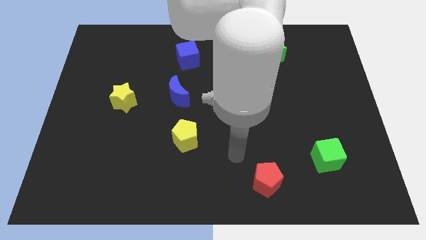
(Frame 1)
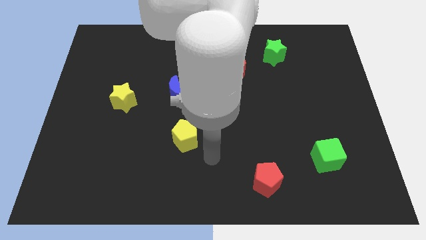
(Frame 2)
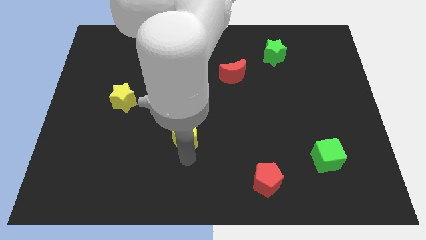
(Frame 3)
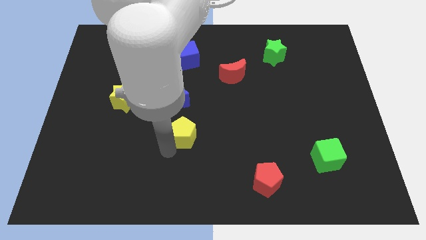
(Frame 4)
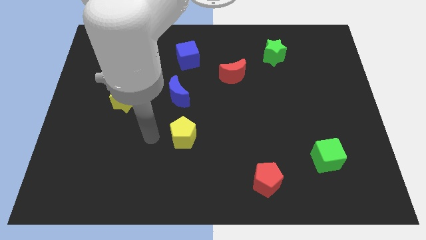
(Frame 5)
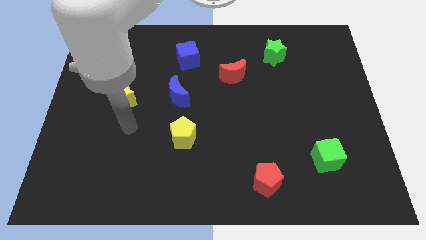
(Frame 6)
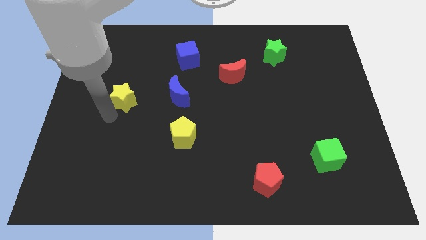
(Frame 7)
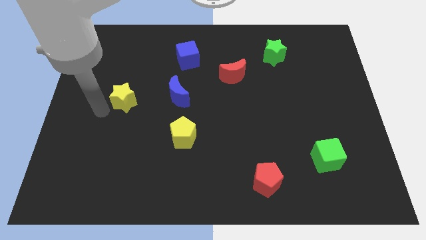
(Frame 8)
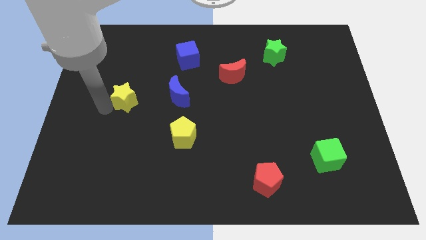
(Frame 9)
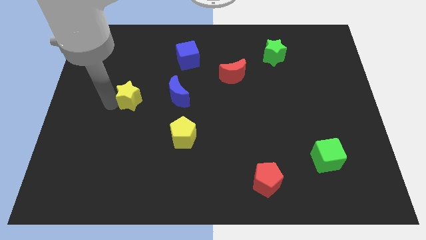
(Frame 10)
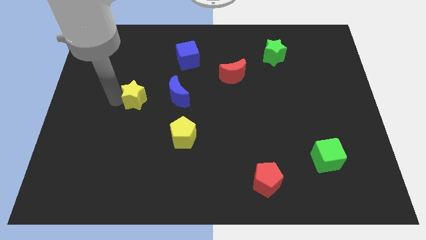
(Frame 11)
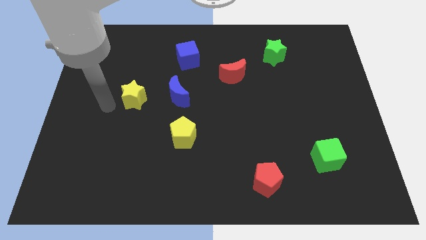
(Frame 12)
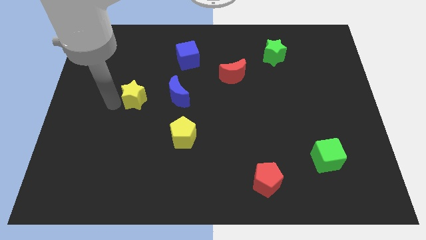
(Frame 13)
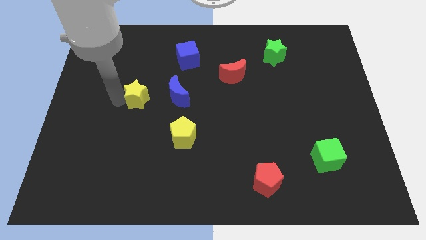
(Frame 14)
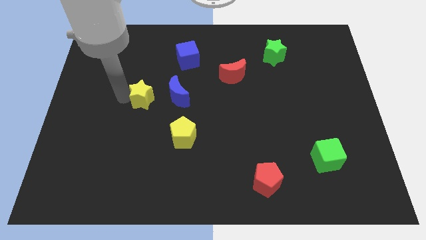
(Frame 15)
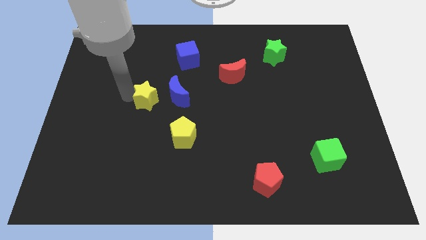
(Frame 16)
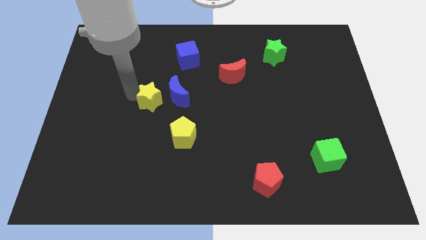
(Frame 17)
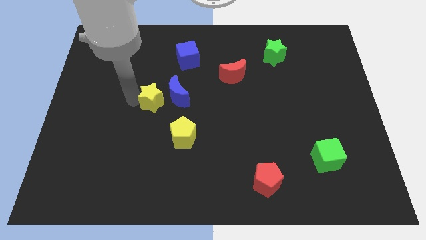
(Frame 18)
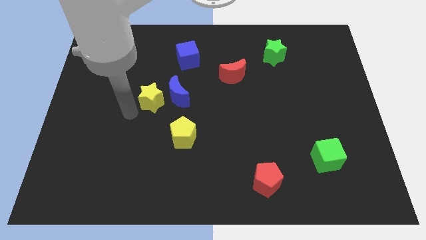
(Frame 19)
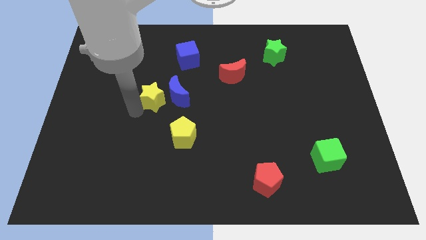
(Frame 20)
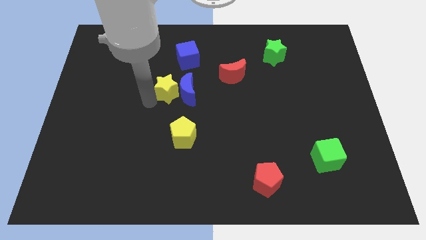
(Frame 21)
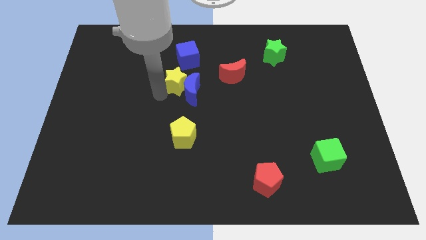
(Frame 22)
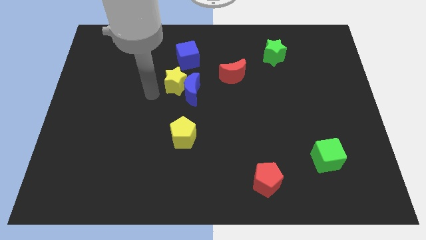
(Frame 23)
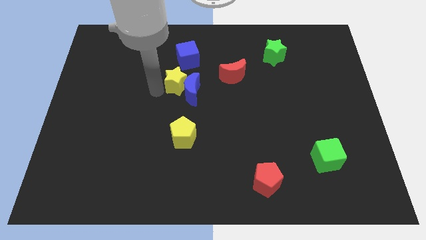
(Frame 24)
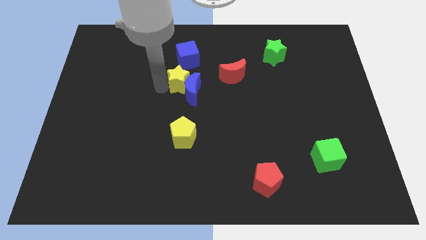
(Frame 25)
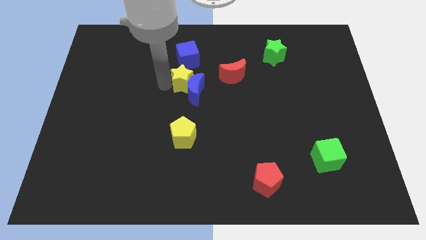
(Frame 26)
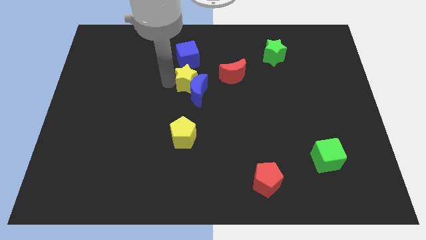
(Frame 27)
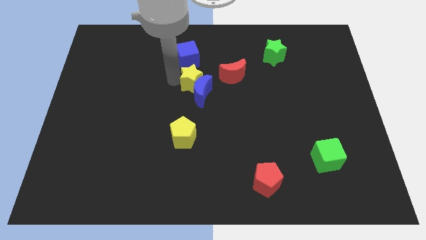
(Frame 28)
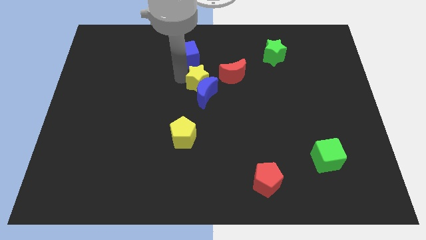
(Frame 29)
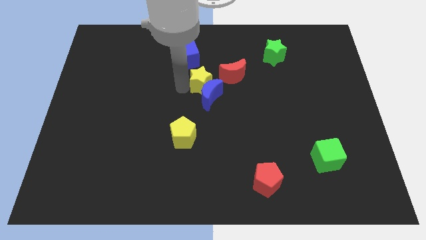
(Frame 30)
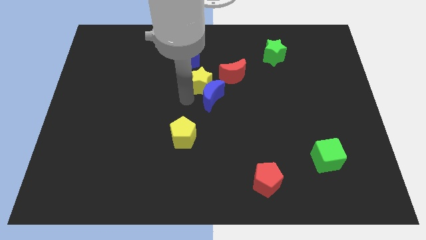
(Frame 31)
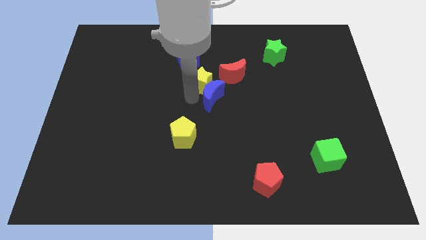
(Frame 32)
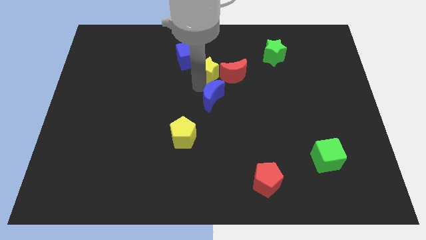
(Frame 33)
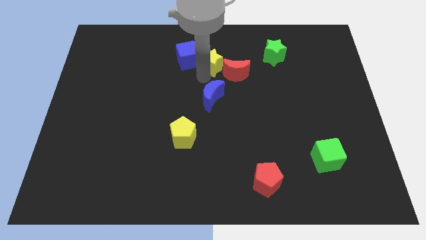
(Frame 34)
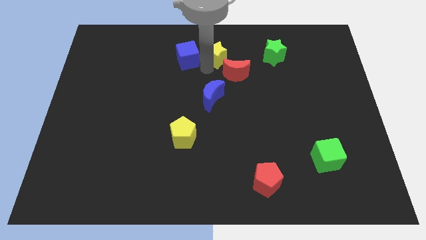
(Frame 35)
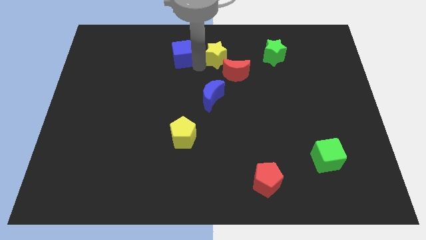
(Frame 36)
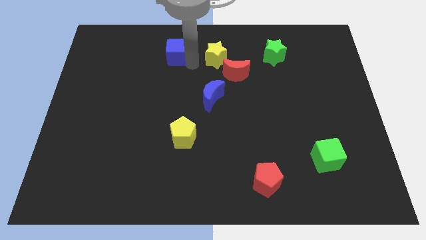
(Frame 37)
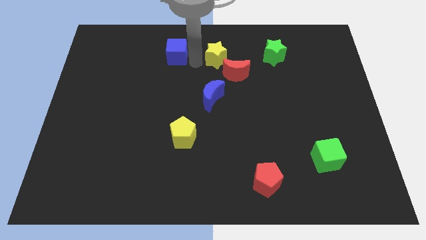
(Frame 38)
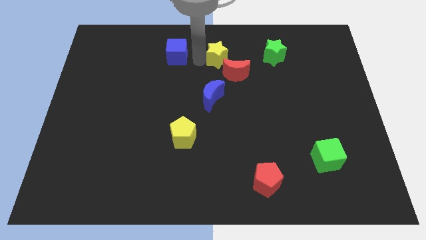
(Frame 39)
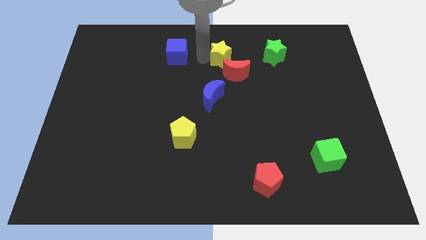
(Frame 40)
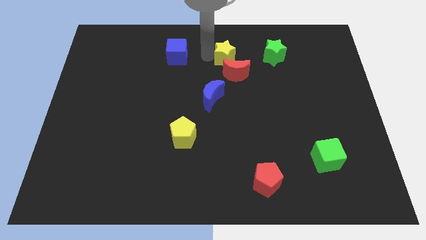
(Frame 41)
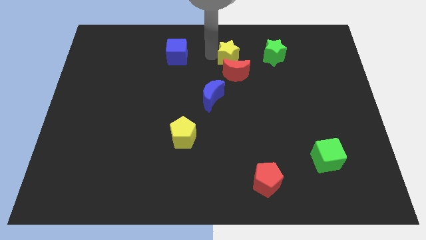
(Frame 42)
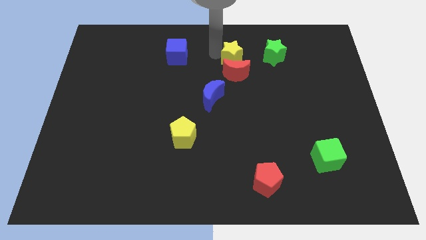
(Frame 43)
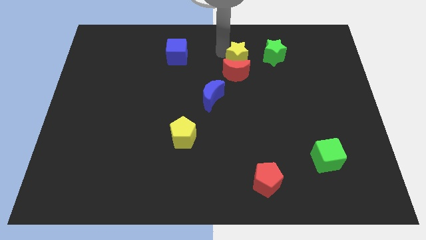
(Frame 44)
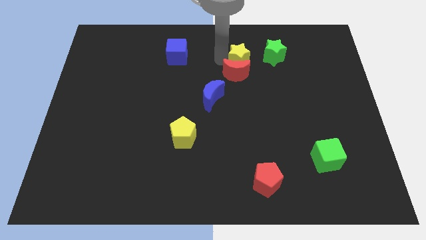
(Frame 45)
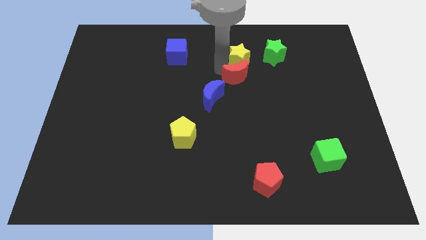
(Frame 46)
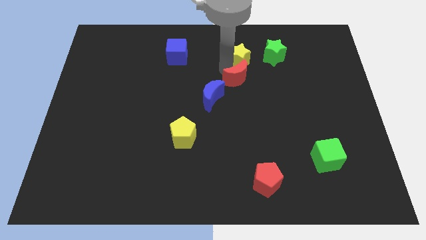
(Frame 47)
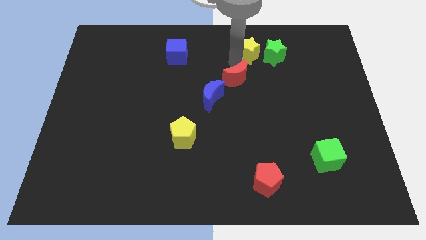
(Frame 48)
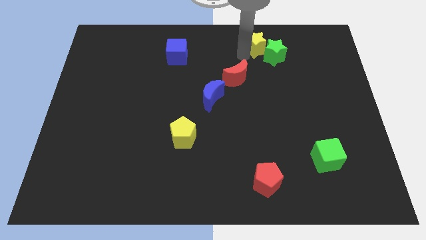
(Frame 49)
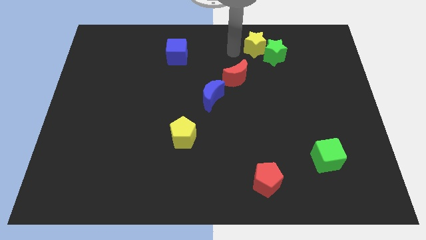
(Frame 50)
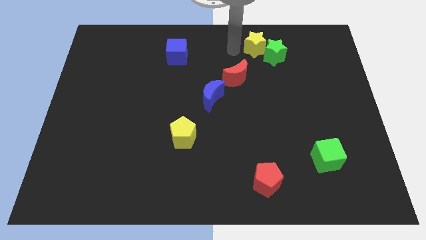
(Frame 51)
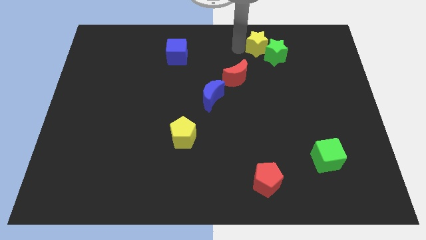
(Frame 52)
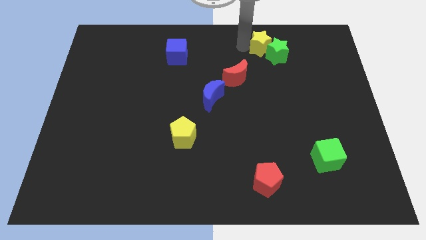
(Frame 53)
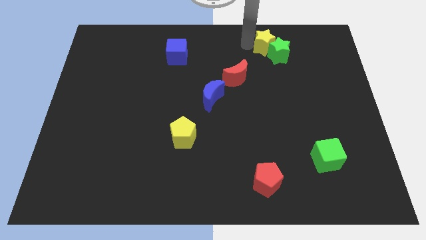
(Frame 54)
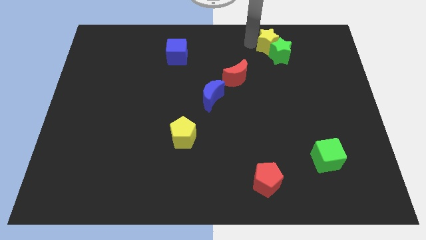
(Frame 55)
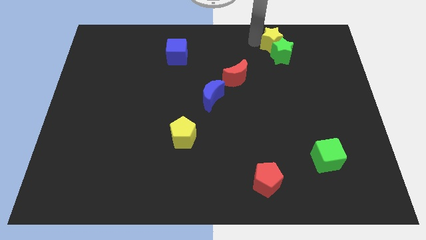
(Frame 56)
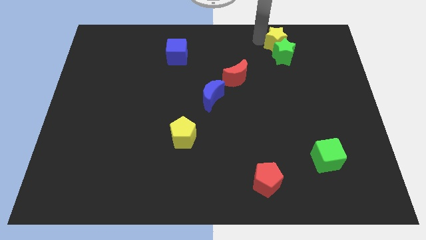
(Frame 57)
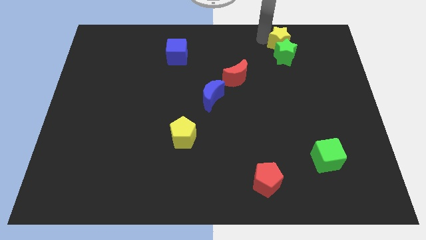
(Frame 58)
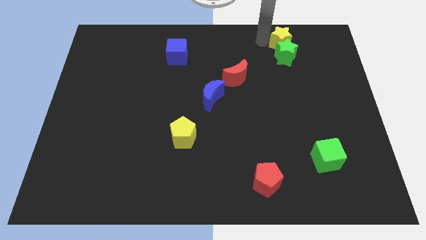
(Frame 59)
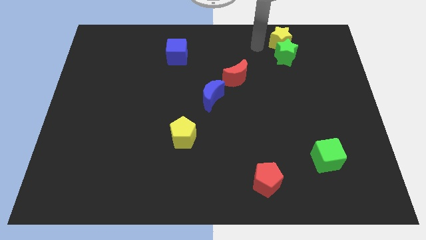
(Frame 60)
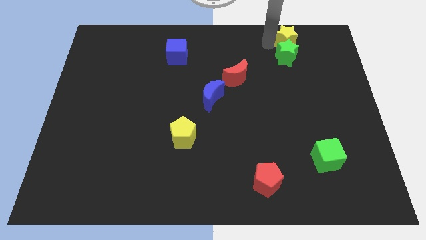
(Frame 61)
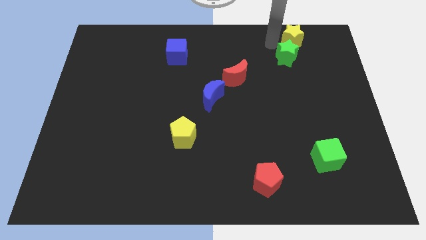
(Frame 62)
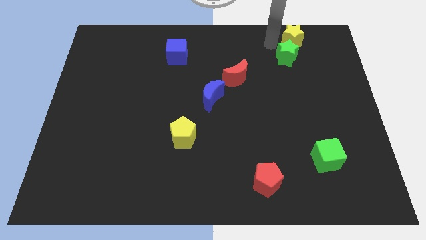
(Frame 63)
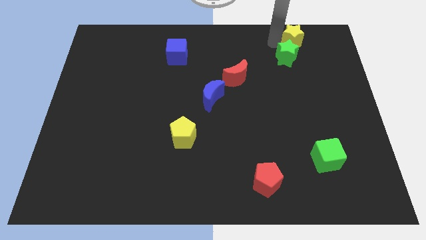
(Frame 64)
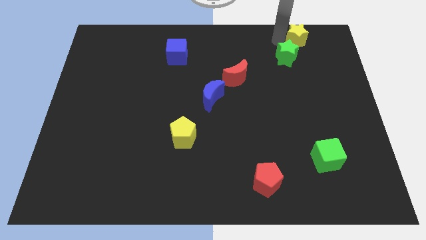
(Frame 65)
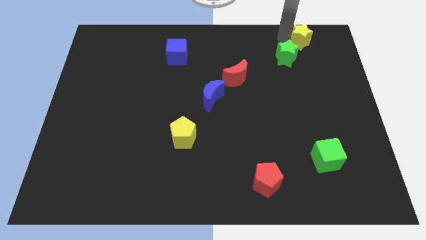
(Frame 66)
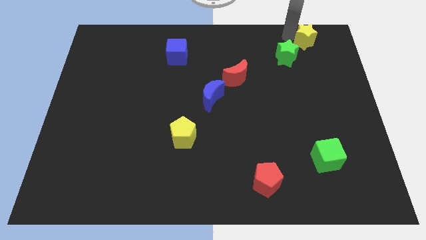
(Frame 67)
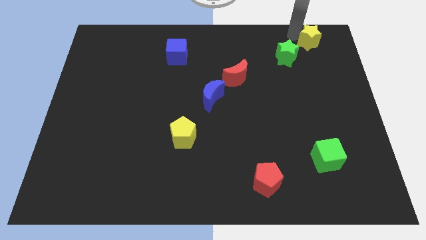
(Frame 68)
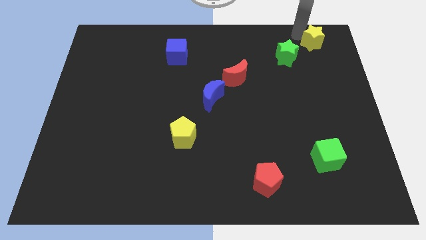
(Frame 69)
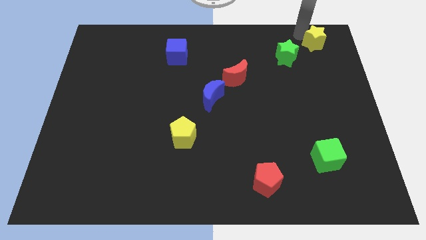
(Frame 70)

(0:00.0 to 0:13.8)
move the yellow star to the upper right corner

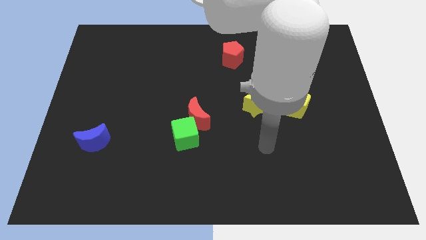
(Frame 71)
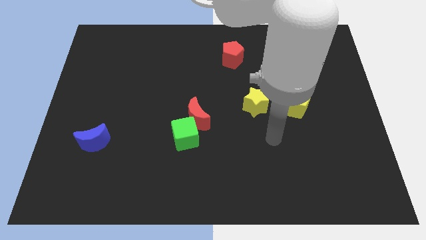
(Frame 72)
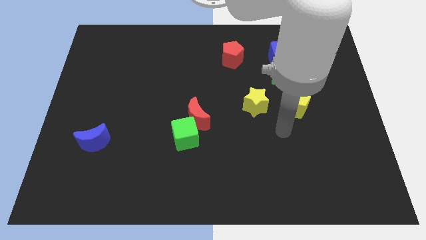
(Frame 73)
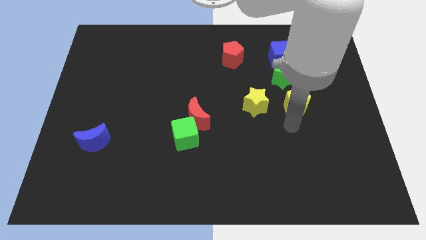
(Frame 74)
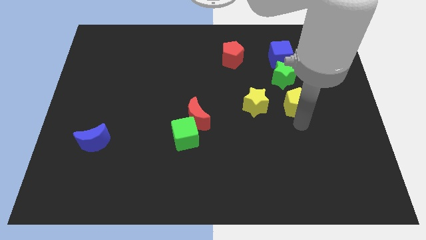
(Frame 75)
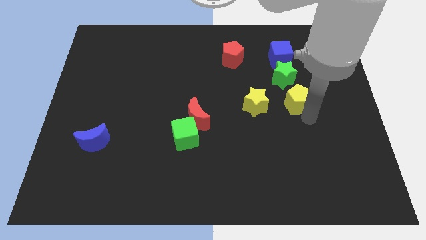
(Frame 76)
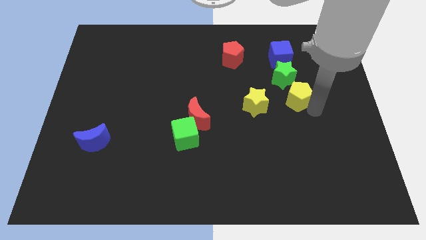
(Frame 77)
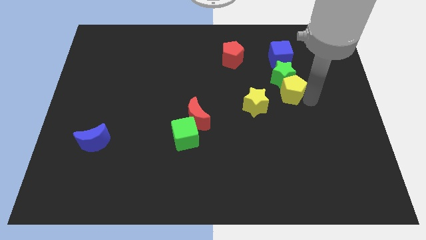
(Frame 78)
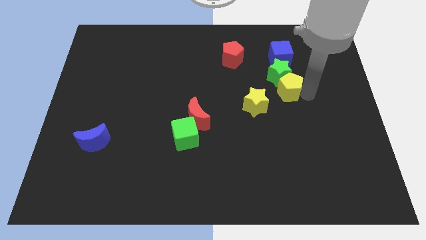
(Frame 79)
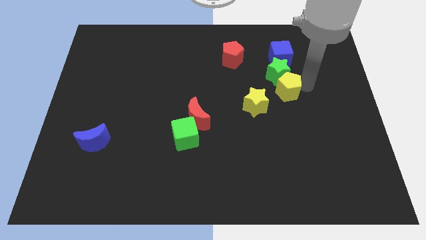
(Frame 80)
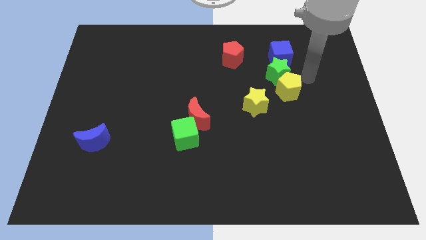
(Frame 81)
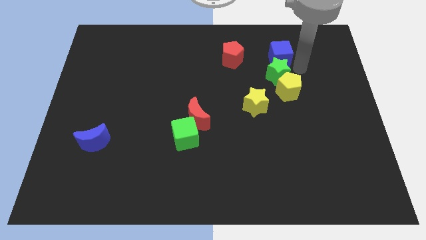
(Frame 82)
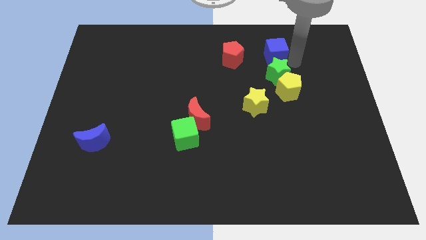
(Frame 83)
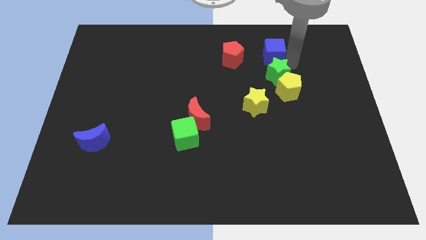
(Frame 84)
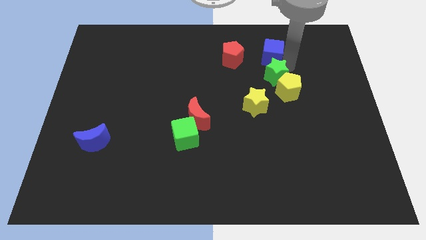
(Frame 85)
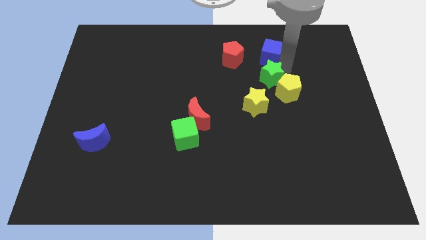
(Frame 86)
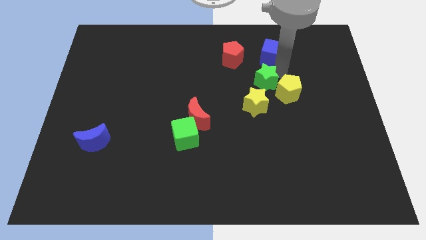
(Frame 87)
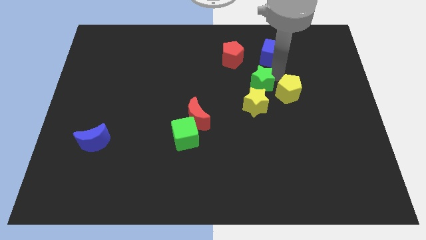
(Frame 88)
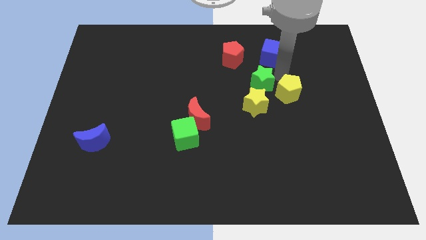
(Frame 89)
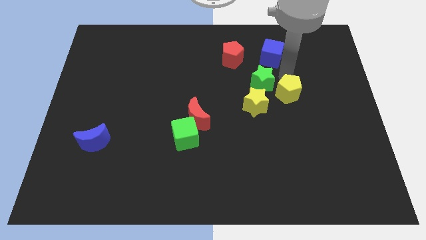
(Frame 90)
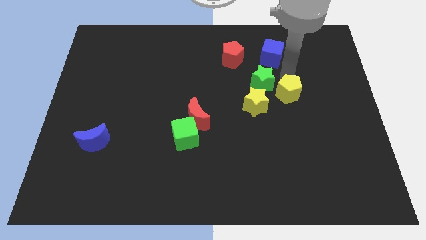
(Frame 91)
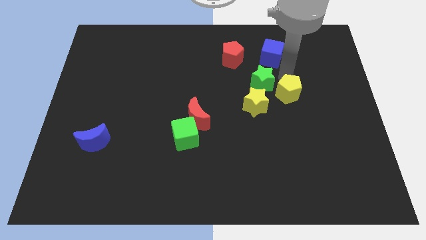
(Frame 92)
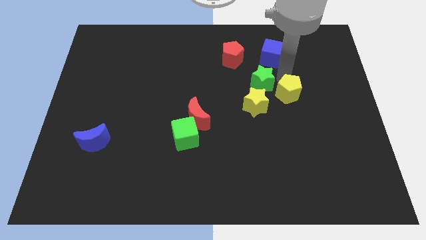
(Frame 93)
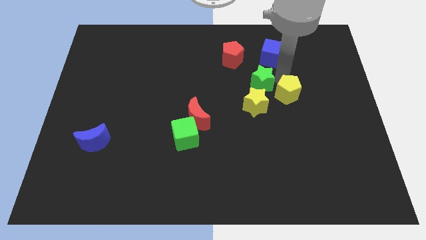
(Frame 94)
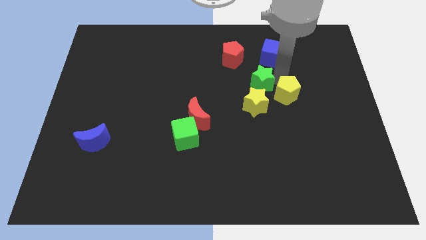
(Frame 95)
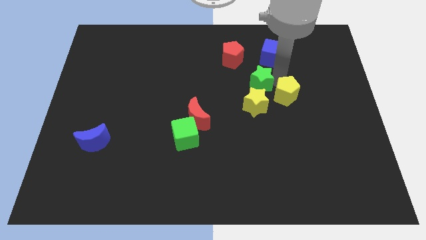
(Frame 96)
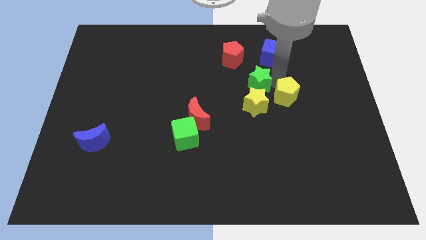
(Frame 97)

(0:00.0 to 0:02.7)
move the green star to the middle
